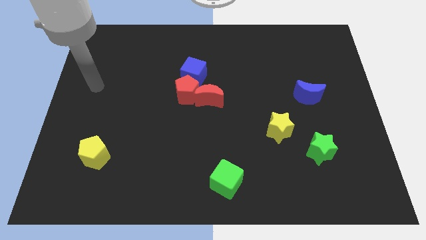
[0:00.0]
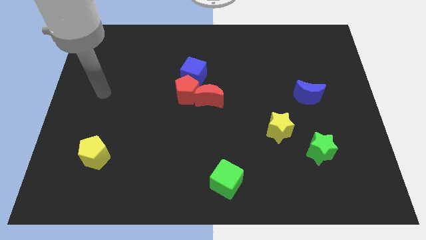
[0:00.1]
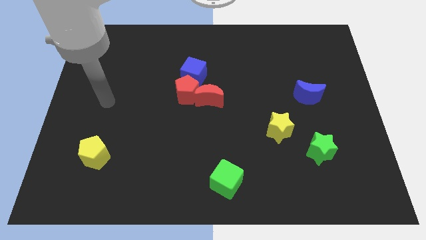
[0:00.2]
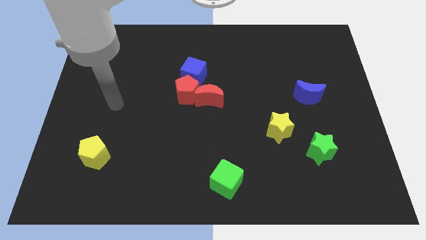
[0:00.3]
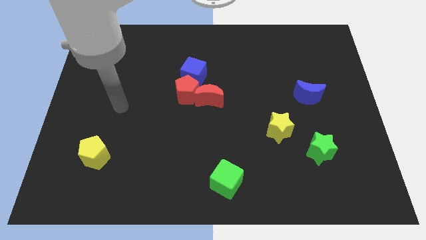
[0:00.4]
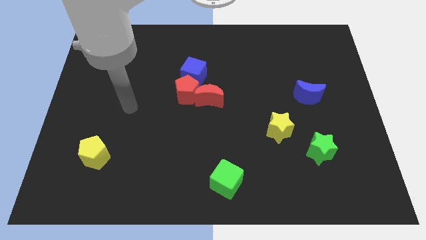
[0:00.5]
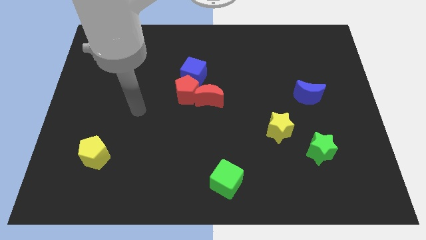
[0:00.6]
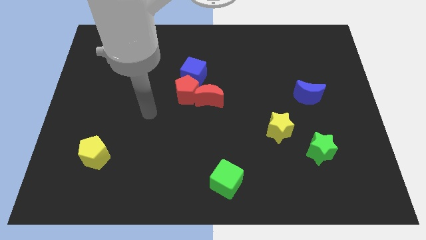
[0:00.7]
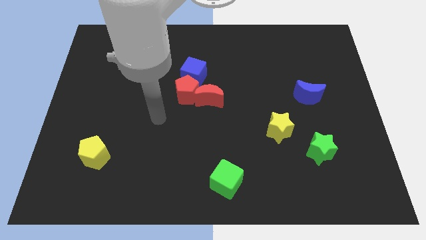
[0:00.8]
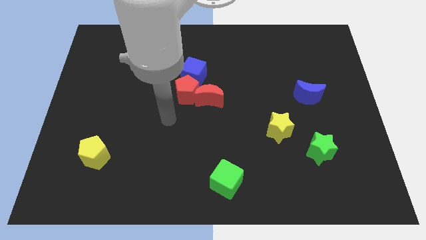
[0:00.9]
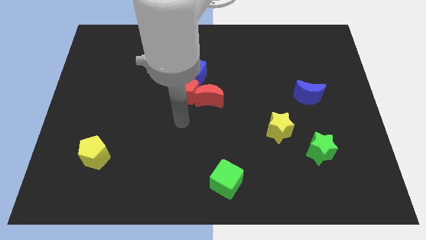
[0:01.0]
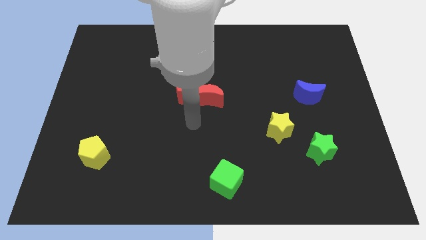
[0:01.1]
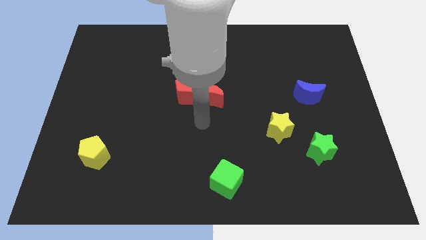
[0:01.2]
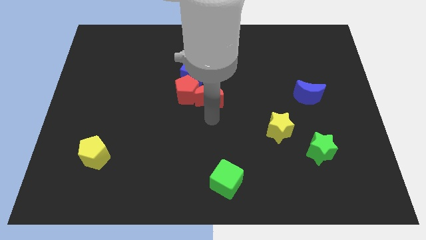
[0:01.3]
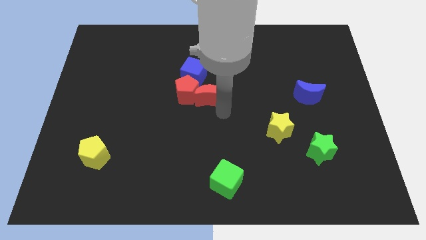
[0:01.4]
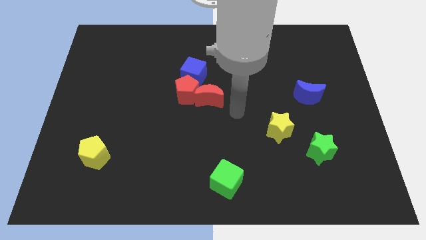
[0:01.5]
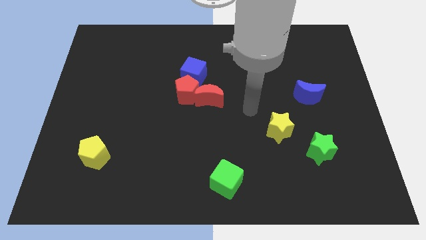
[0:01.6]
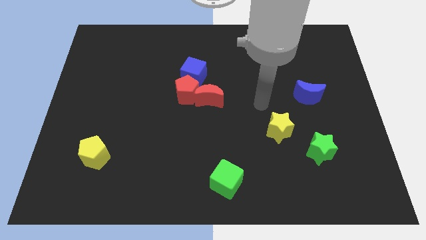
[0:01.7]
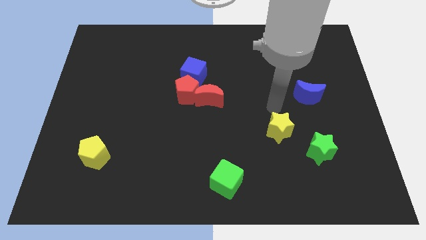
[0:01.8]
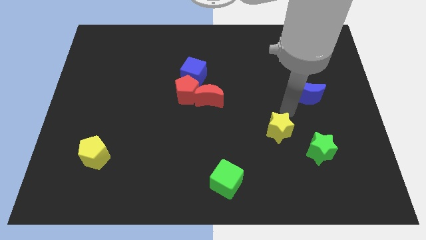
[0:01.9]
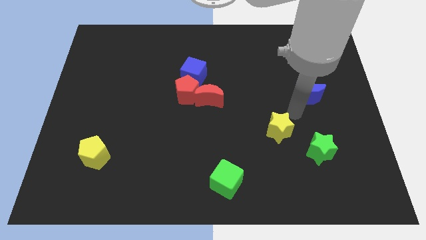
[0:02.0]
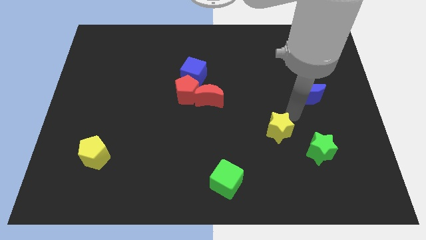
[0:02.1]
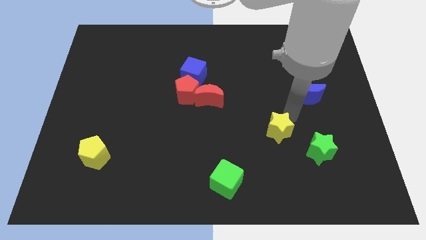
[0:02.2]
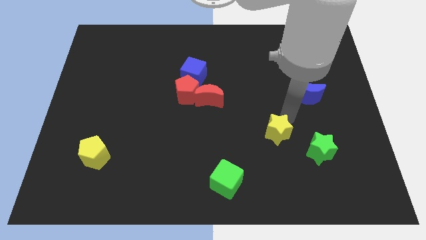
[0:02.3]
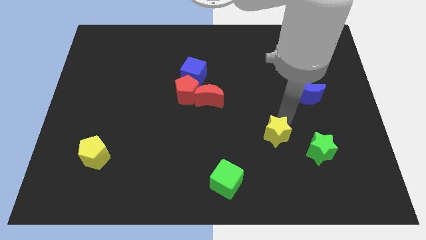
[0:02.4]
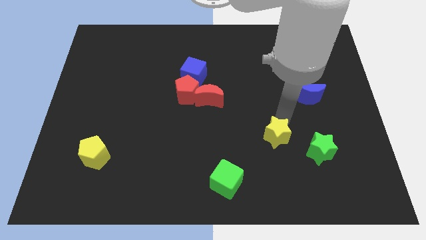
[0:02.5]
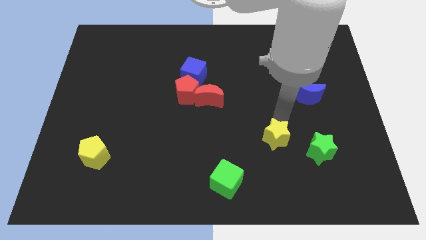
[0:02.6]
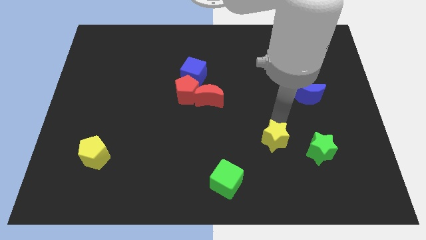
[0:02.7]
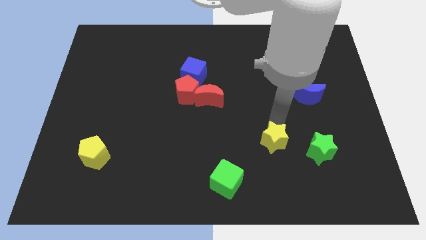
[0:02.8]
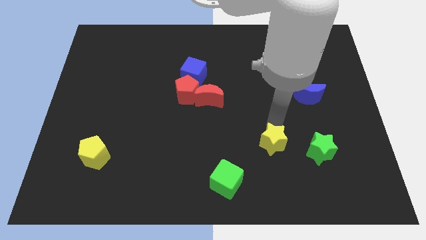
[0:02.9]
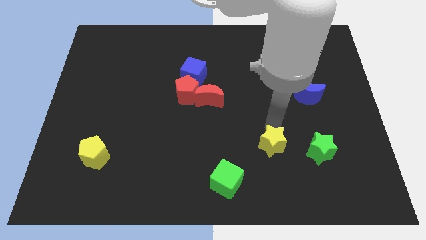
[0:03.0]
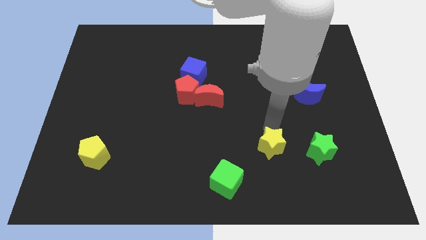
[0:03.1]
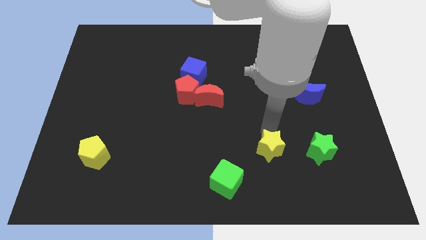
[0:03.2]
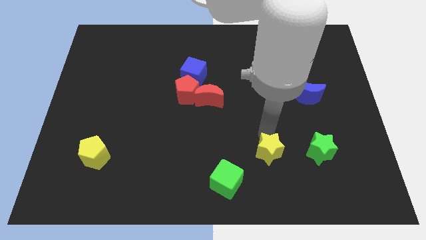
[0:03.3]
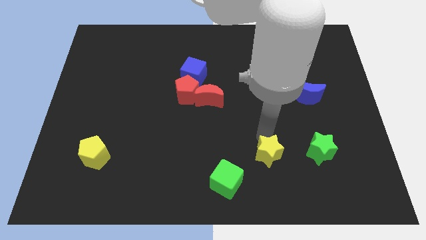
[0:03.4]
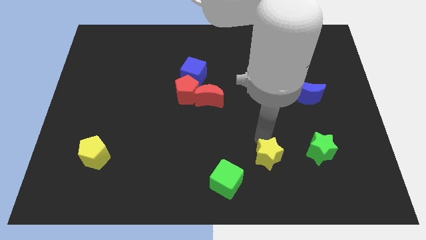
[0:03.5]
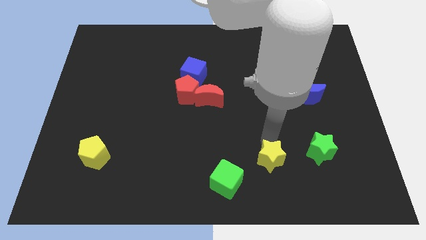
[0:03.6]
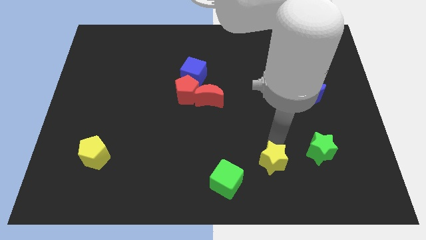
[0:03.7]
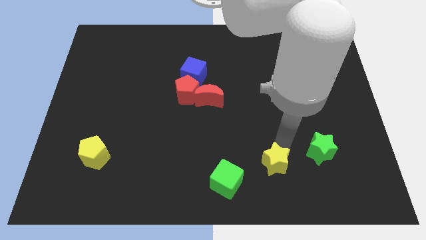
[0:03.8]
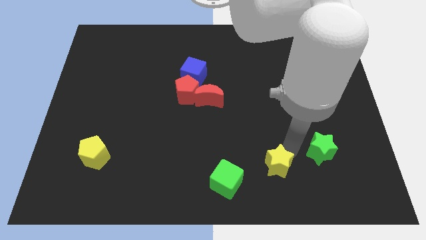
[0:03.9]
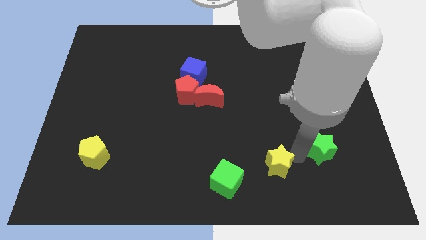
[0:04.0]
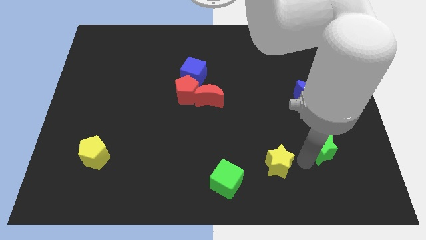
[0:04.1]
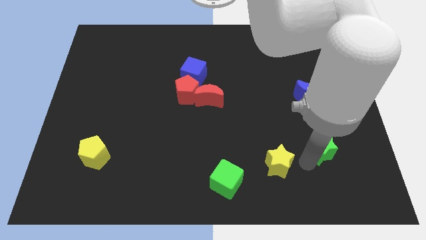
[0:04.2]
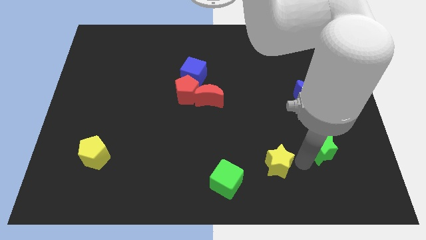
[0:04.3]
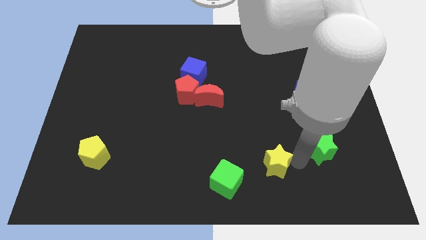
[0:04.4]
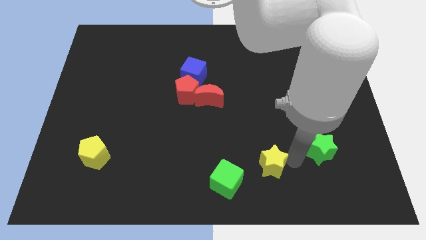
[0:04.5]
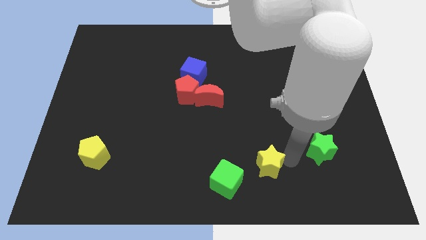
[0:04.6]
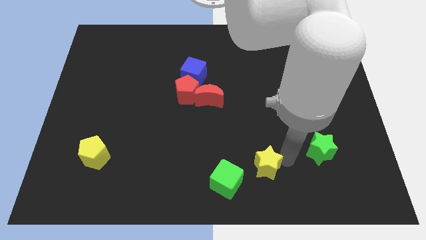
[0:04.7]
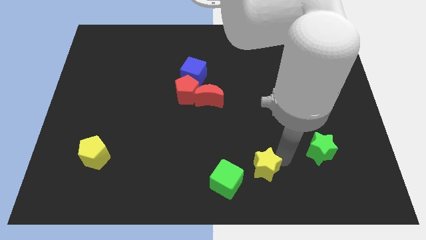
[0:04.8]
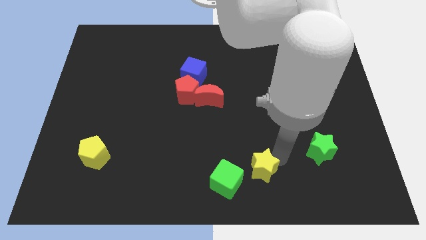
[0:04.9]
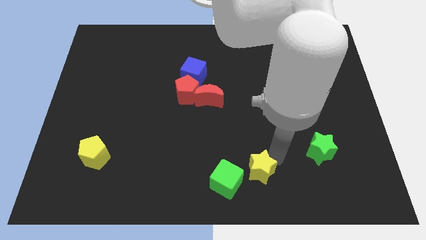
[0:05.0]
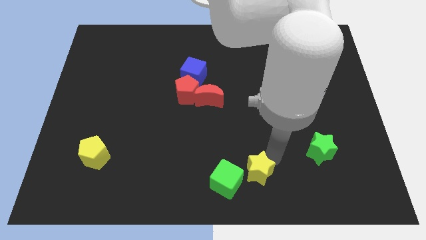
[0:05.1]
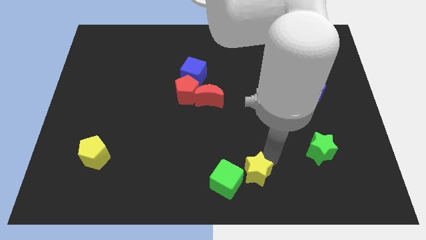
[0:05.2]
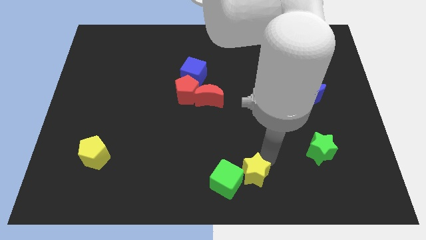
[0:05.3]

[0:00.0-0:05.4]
slide the yellow star towards the green cube

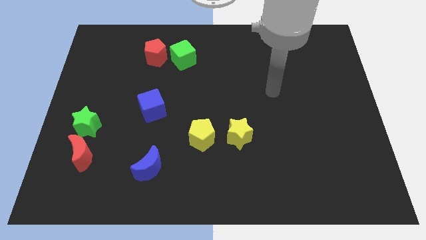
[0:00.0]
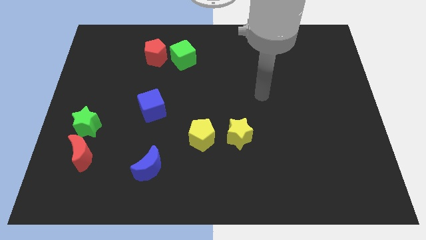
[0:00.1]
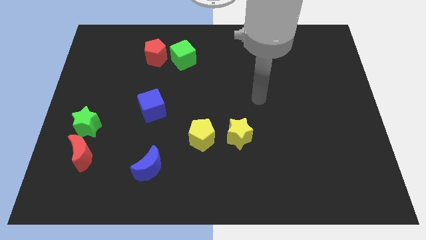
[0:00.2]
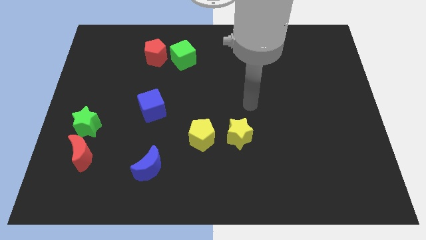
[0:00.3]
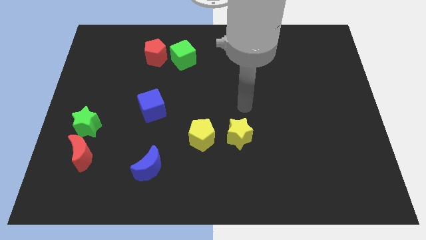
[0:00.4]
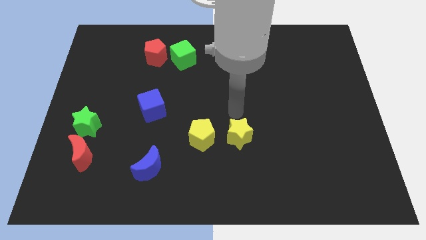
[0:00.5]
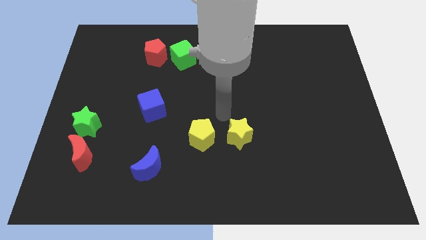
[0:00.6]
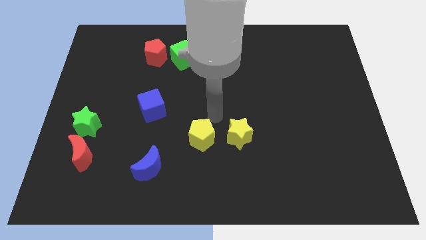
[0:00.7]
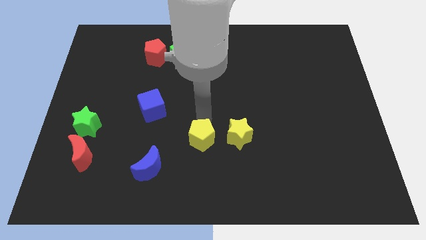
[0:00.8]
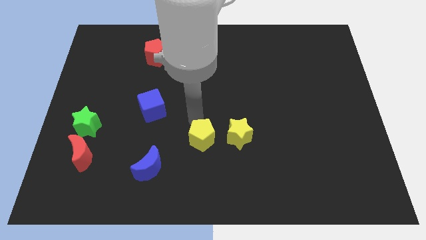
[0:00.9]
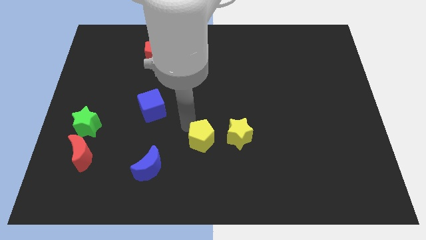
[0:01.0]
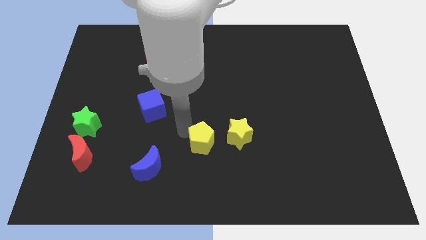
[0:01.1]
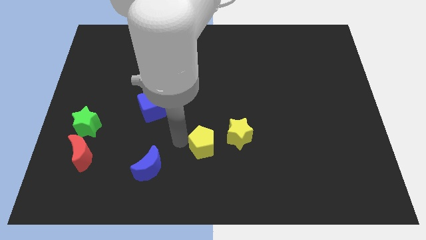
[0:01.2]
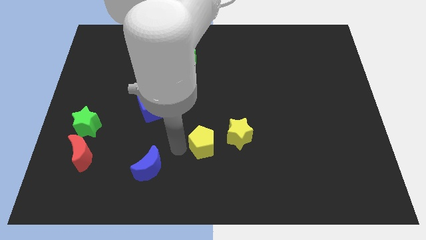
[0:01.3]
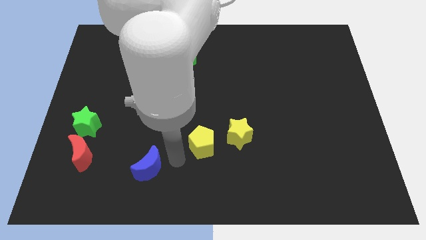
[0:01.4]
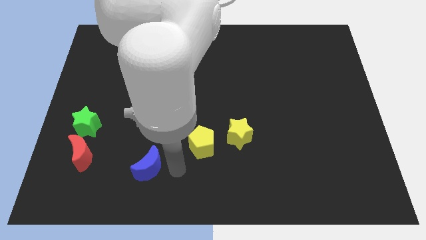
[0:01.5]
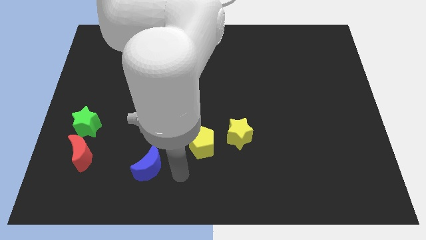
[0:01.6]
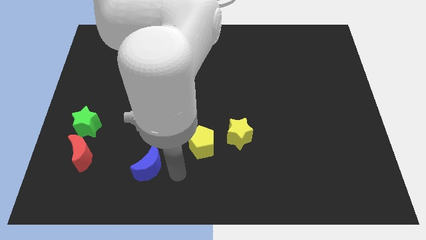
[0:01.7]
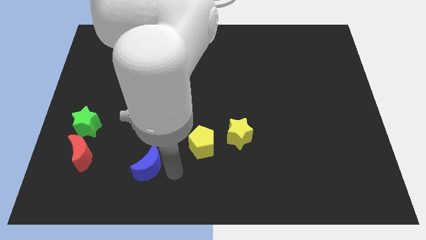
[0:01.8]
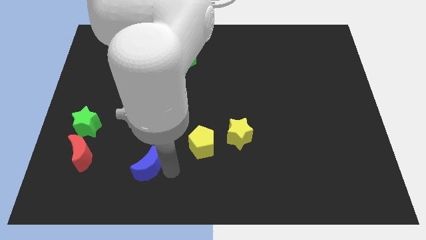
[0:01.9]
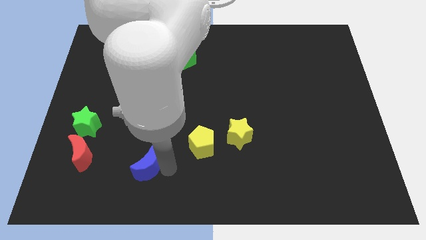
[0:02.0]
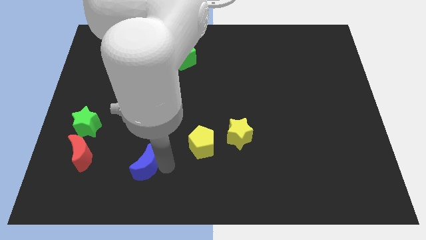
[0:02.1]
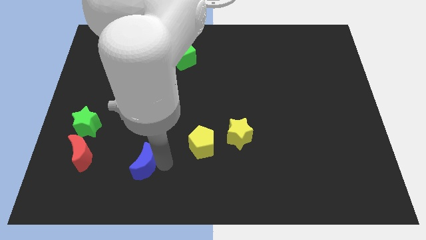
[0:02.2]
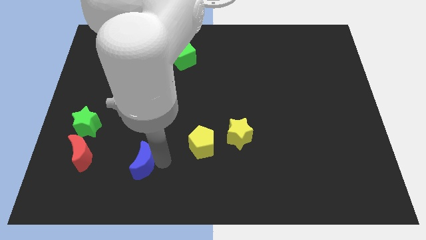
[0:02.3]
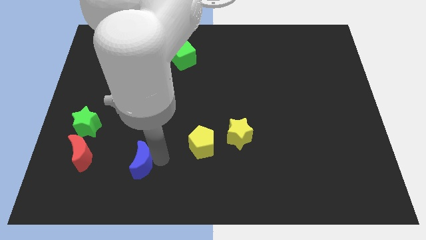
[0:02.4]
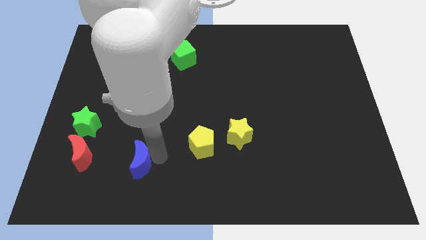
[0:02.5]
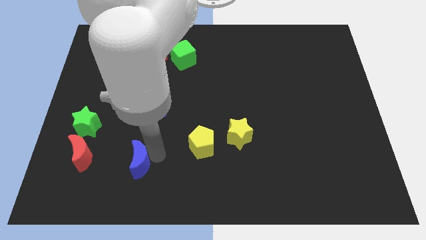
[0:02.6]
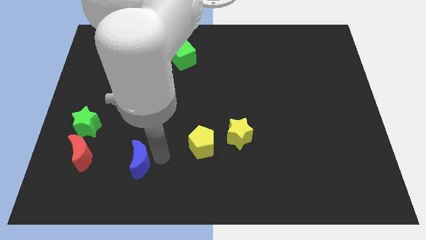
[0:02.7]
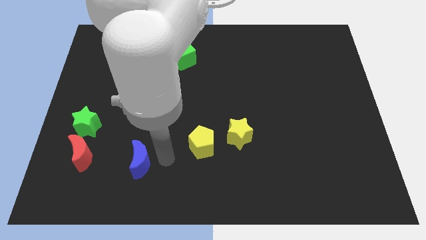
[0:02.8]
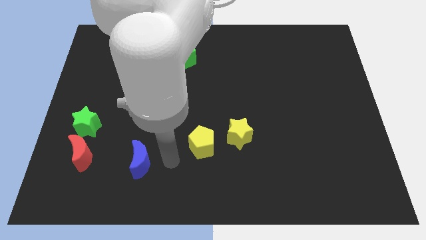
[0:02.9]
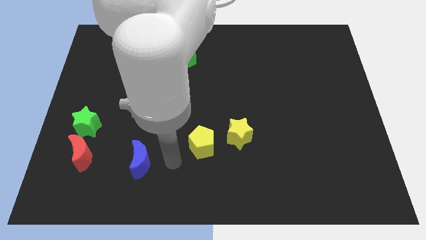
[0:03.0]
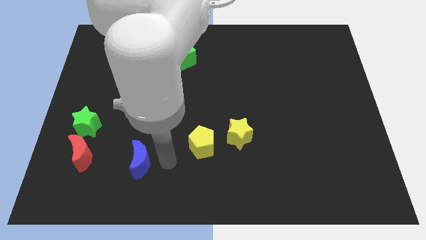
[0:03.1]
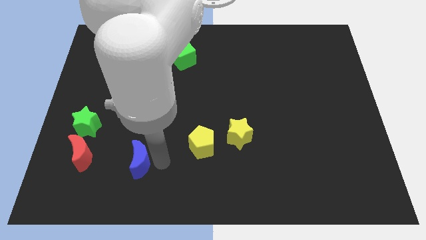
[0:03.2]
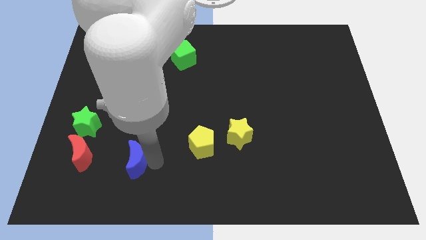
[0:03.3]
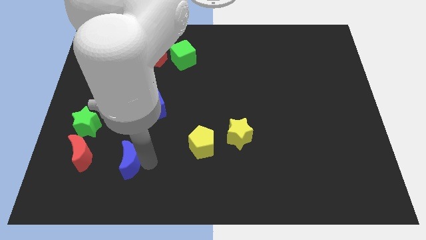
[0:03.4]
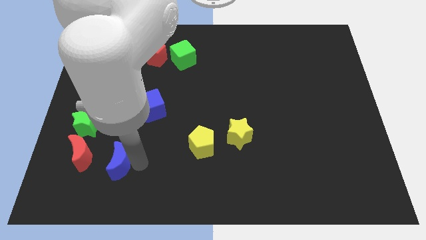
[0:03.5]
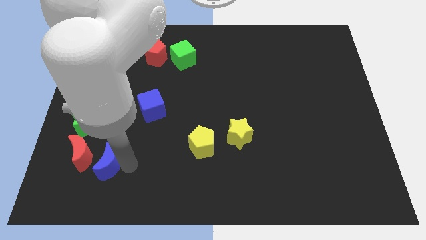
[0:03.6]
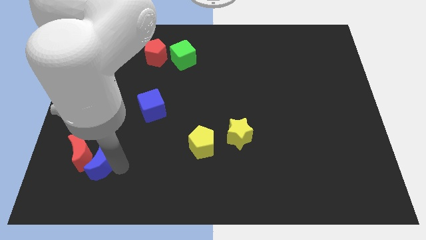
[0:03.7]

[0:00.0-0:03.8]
push the blue moon next to the red moon
